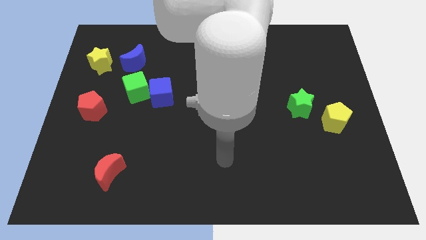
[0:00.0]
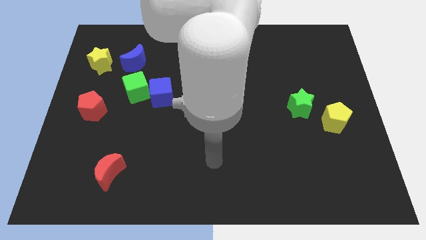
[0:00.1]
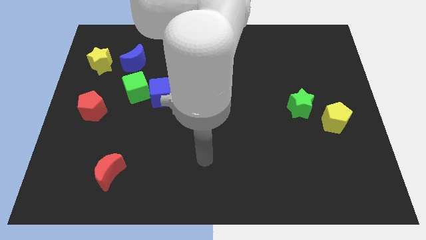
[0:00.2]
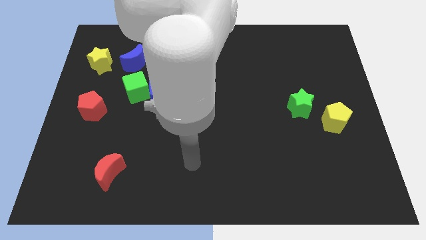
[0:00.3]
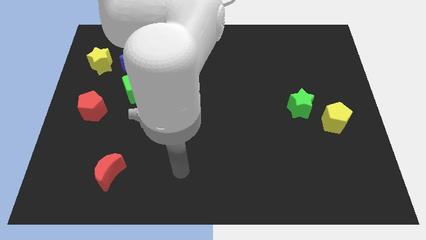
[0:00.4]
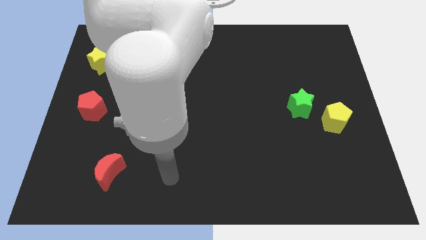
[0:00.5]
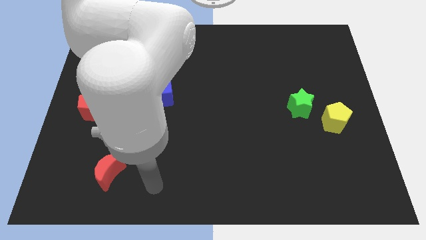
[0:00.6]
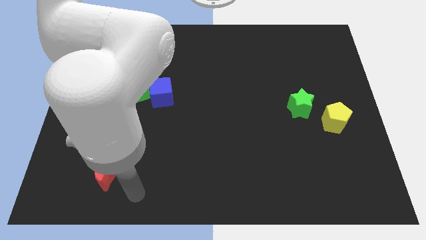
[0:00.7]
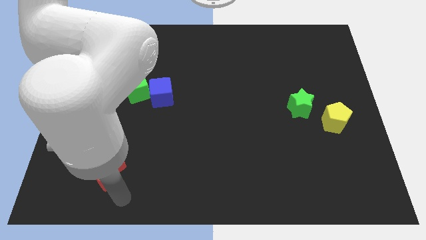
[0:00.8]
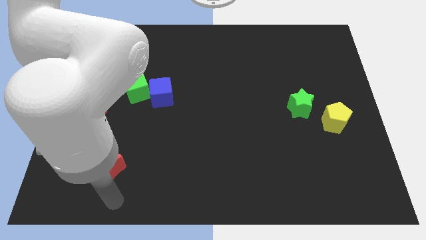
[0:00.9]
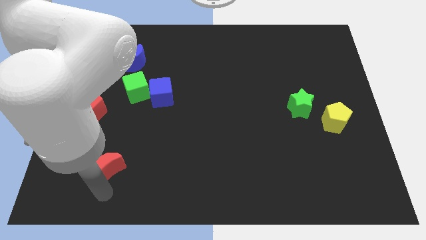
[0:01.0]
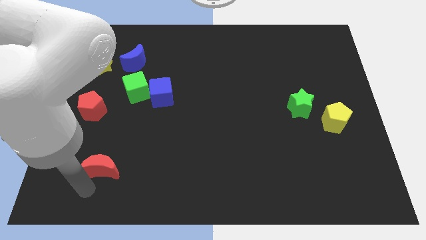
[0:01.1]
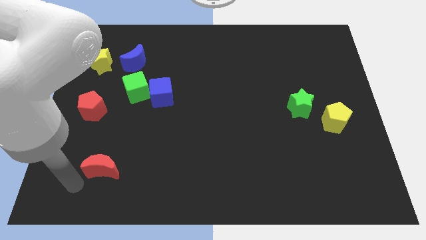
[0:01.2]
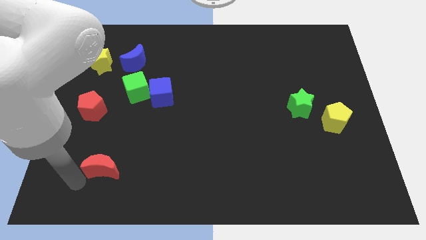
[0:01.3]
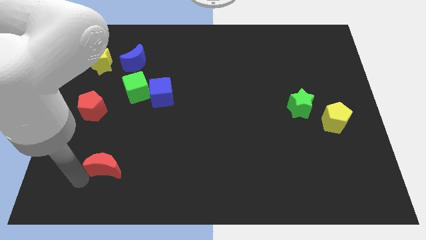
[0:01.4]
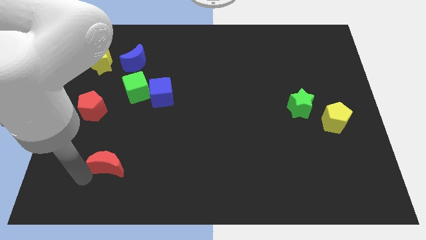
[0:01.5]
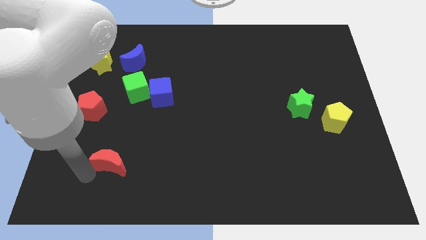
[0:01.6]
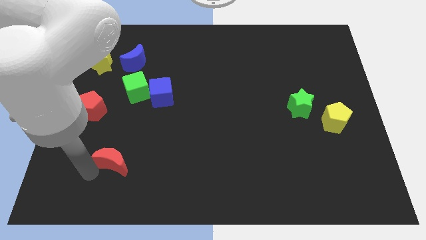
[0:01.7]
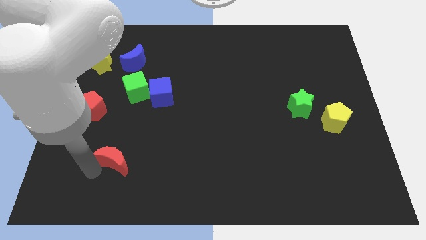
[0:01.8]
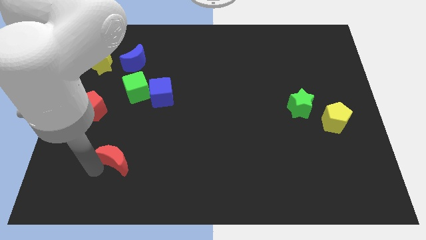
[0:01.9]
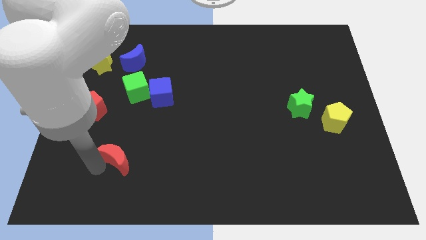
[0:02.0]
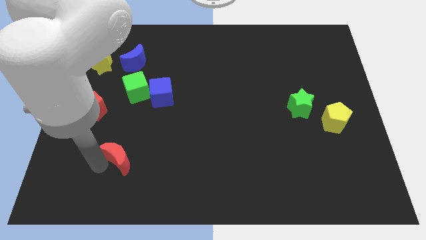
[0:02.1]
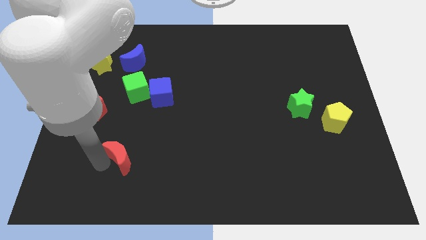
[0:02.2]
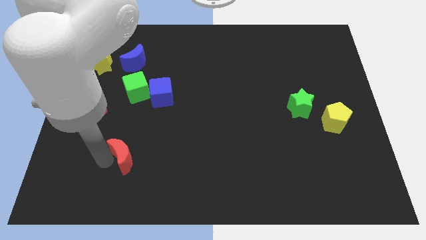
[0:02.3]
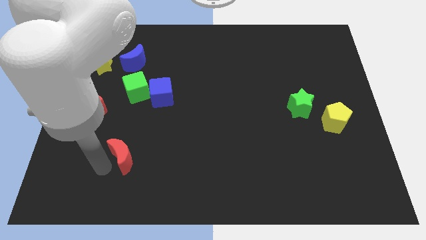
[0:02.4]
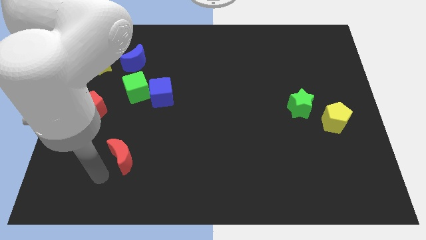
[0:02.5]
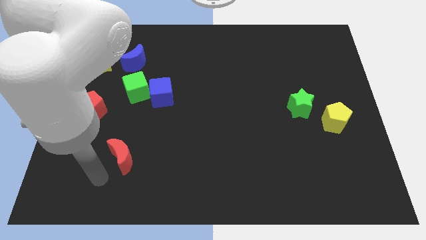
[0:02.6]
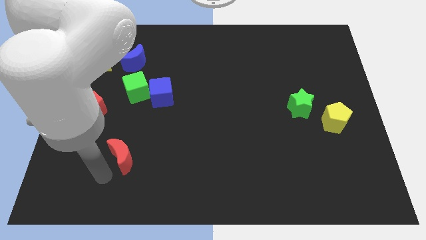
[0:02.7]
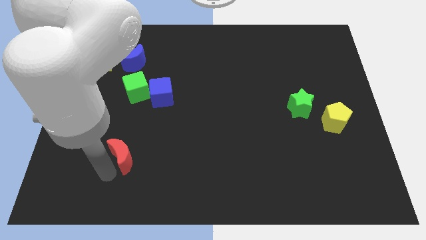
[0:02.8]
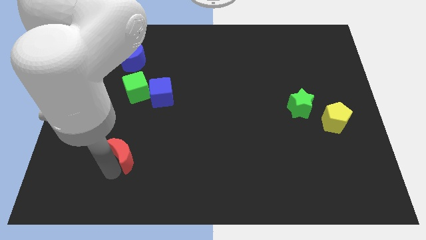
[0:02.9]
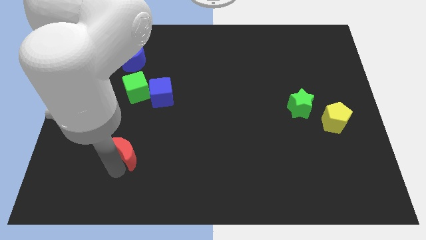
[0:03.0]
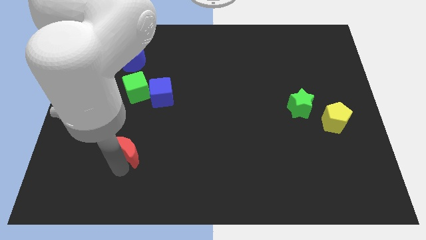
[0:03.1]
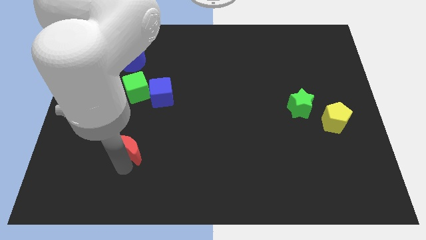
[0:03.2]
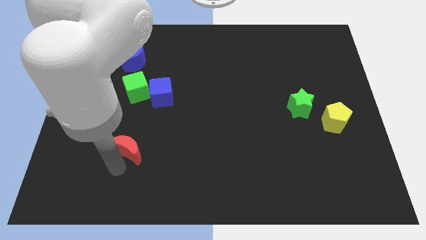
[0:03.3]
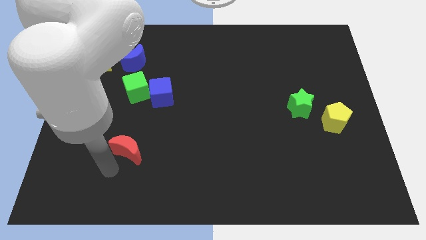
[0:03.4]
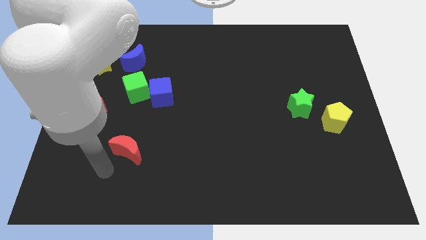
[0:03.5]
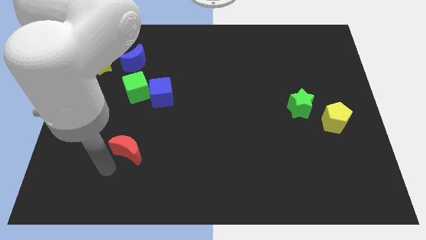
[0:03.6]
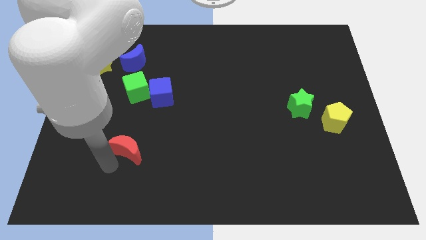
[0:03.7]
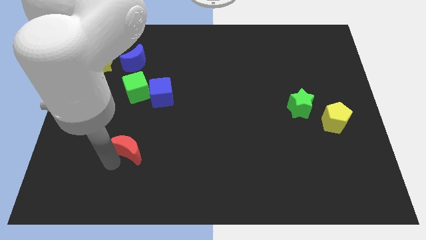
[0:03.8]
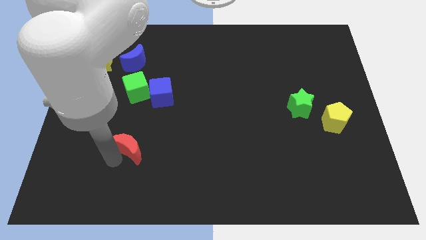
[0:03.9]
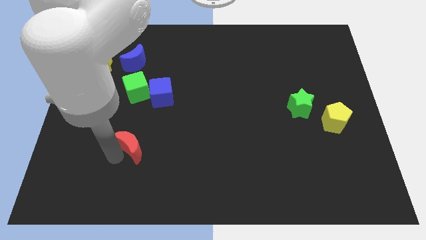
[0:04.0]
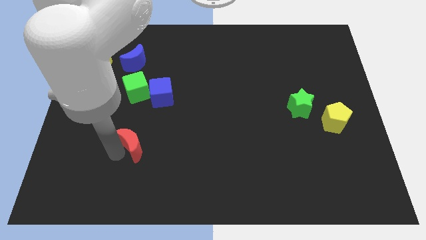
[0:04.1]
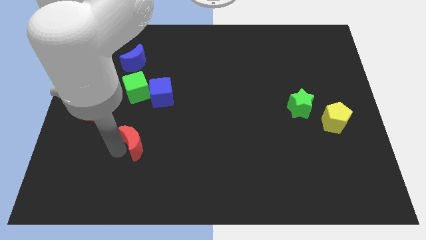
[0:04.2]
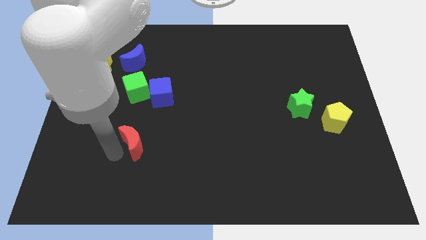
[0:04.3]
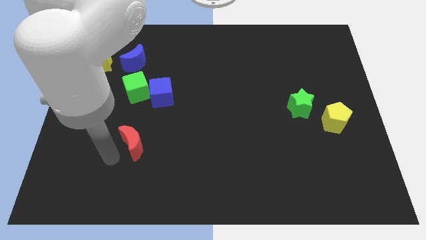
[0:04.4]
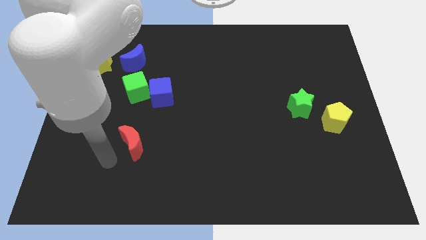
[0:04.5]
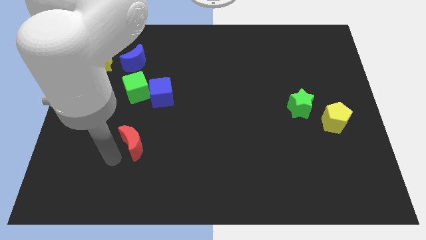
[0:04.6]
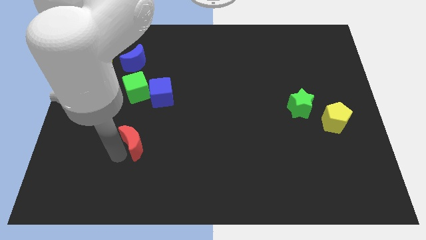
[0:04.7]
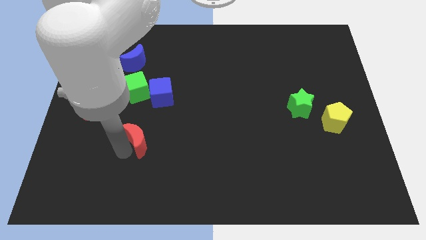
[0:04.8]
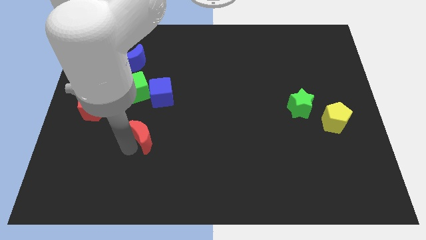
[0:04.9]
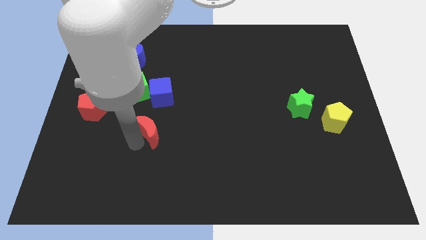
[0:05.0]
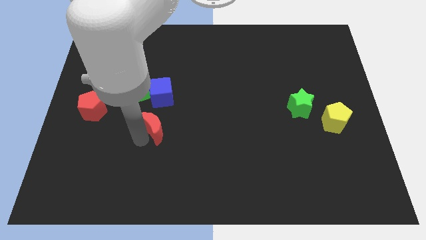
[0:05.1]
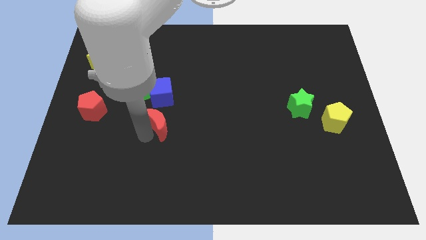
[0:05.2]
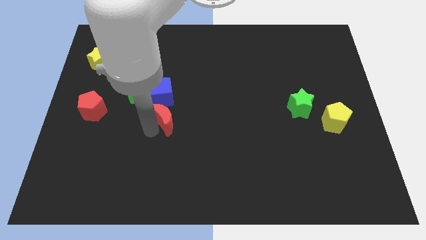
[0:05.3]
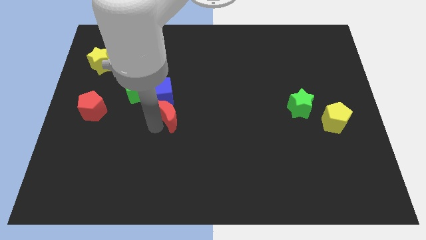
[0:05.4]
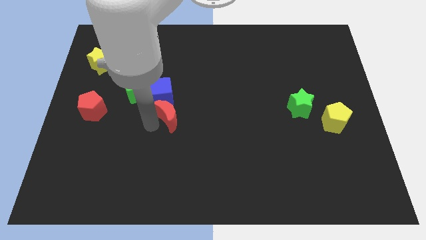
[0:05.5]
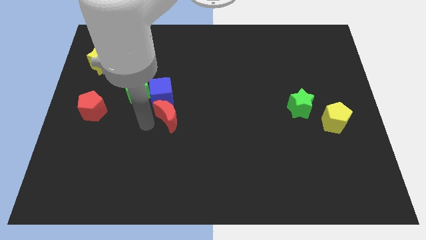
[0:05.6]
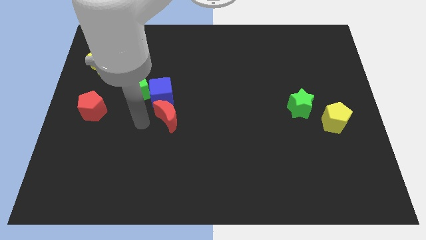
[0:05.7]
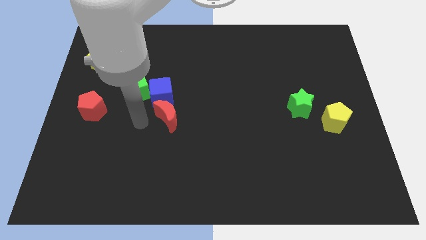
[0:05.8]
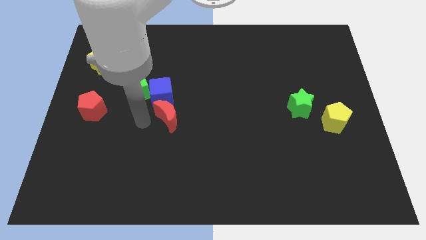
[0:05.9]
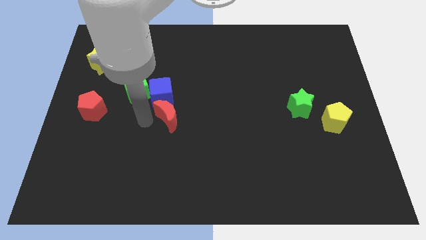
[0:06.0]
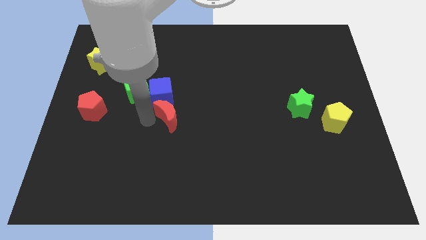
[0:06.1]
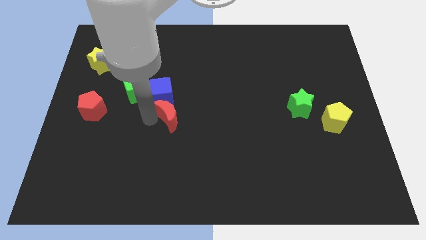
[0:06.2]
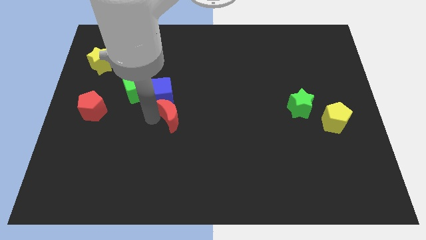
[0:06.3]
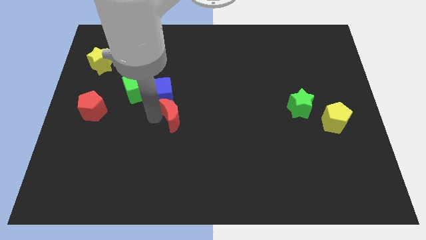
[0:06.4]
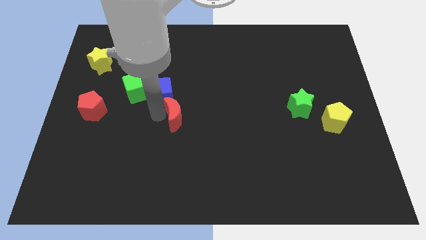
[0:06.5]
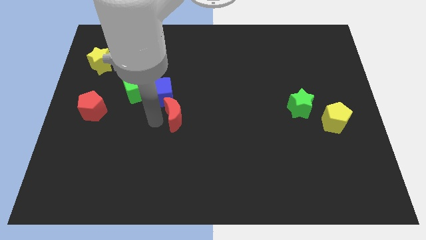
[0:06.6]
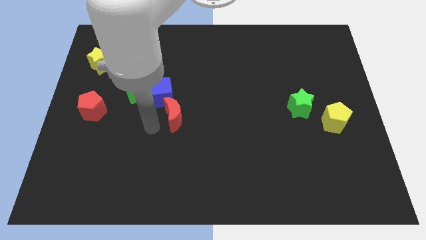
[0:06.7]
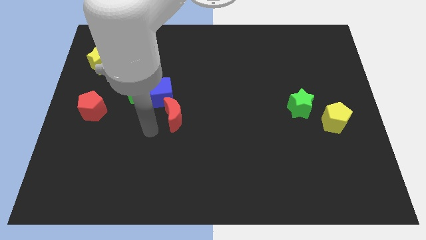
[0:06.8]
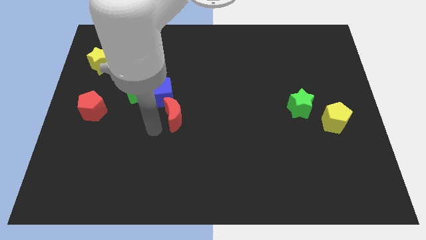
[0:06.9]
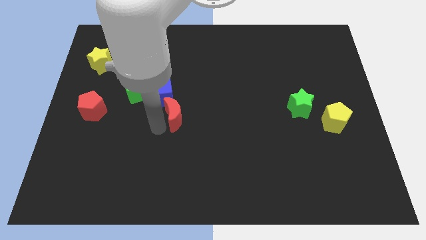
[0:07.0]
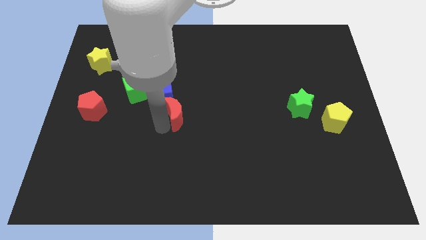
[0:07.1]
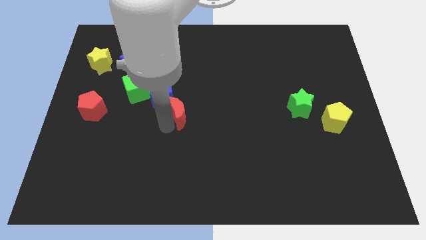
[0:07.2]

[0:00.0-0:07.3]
move the red moon diagonally upwards and to the right

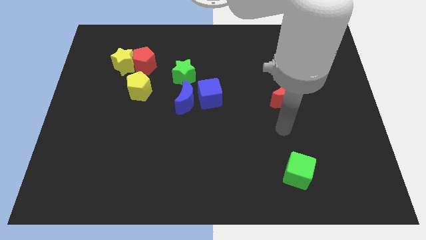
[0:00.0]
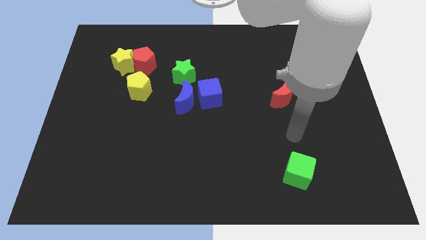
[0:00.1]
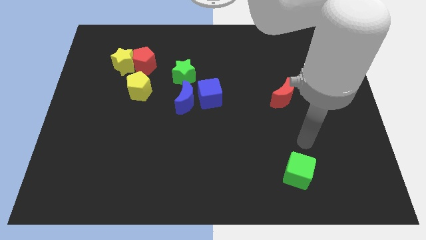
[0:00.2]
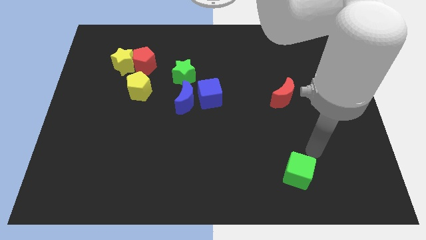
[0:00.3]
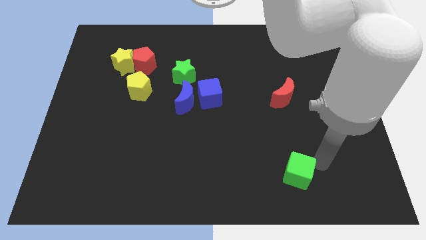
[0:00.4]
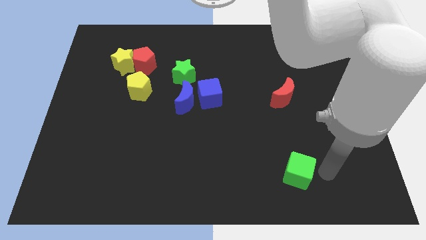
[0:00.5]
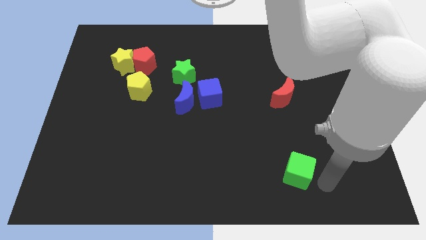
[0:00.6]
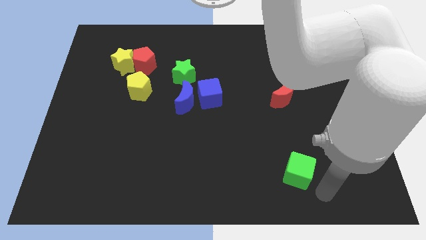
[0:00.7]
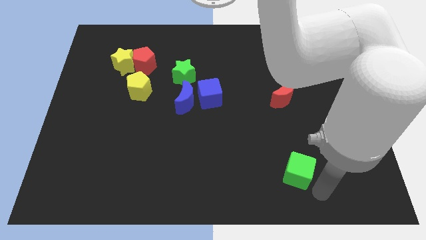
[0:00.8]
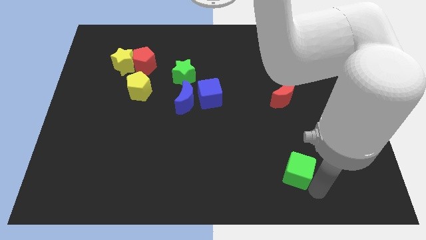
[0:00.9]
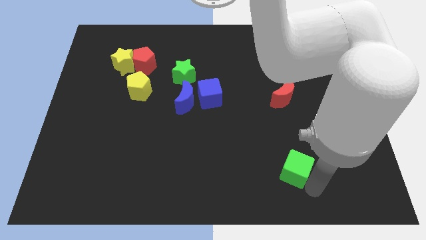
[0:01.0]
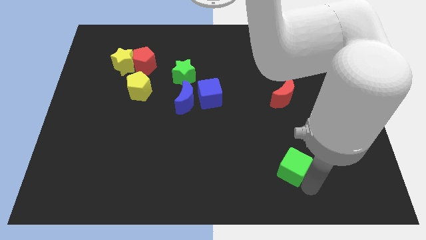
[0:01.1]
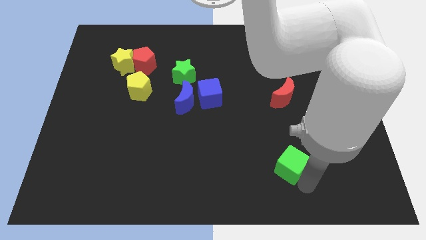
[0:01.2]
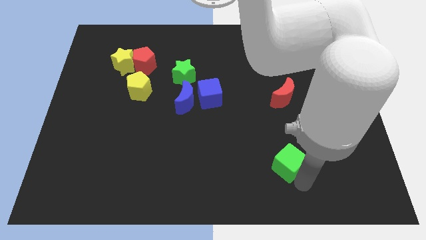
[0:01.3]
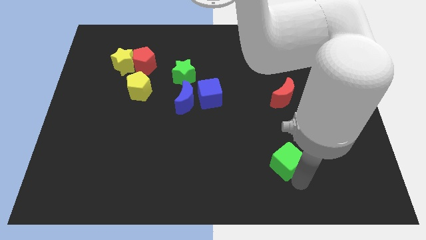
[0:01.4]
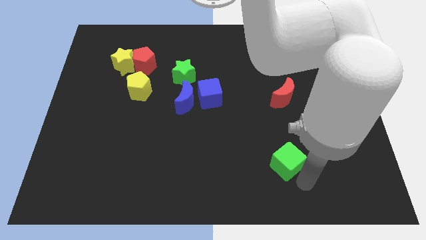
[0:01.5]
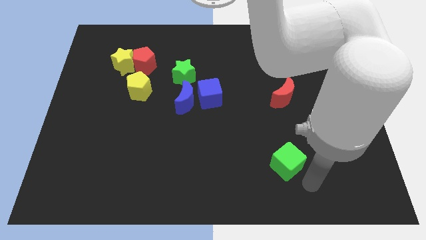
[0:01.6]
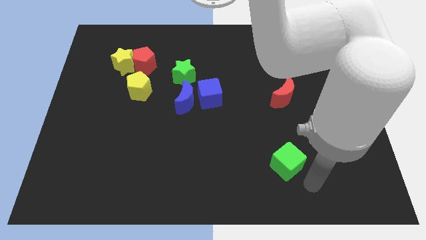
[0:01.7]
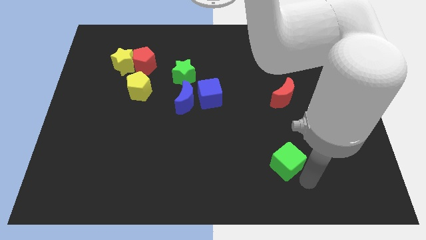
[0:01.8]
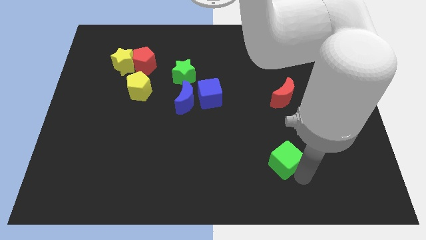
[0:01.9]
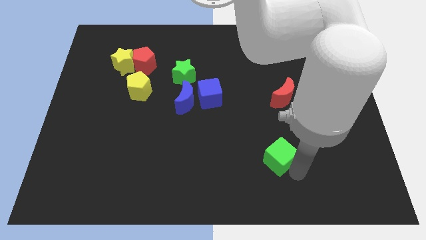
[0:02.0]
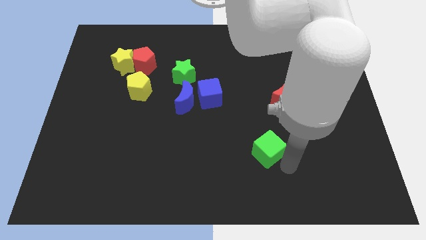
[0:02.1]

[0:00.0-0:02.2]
slightly move the green cube upwards and left
